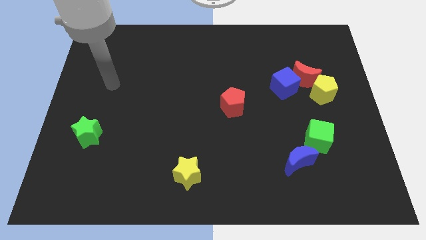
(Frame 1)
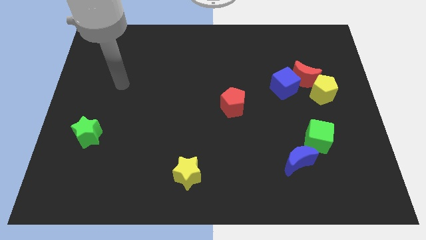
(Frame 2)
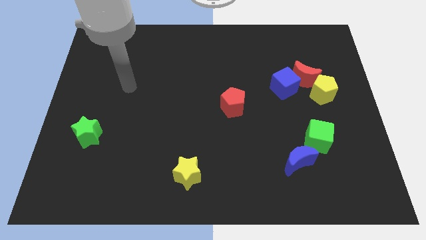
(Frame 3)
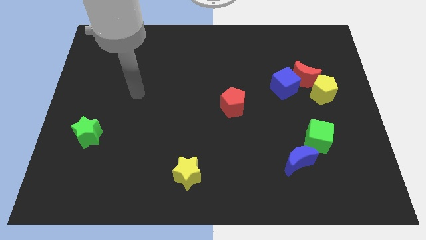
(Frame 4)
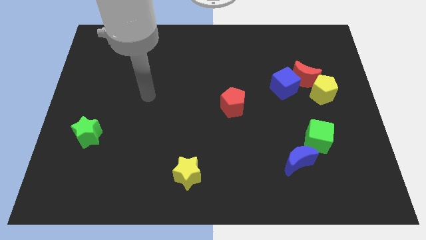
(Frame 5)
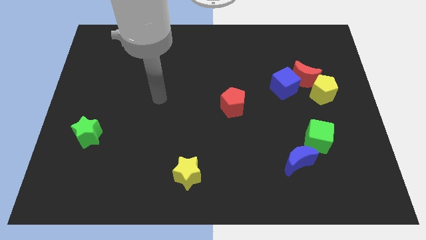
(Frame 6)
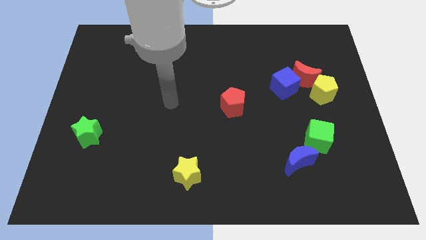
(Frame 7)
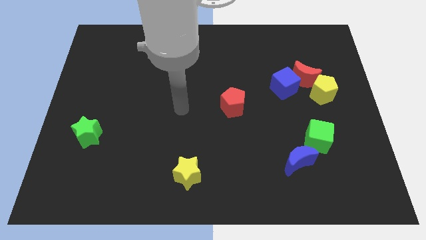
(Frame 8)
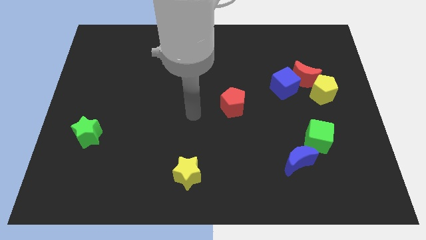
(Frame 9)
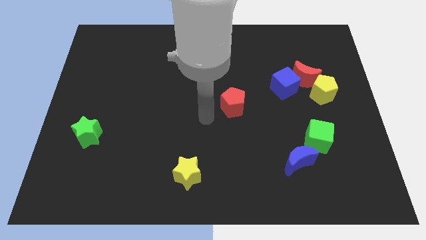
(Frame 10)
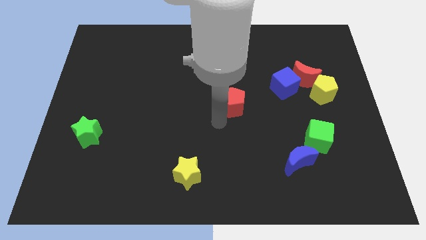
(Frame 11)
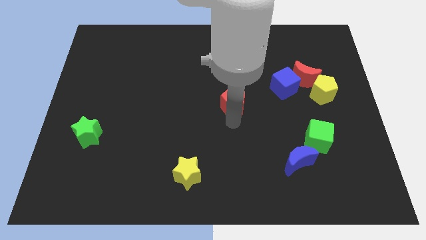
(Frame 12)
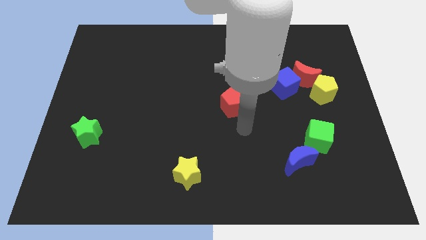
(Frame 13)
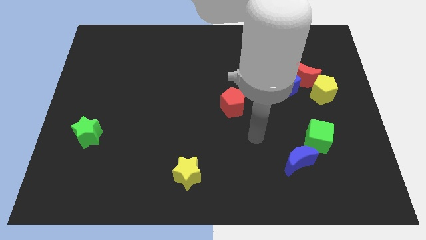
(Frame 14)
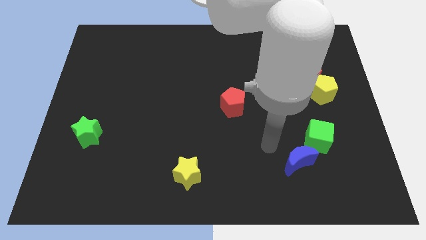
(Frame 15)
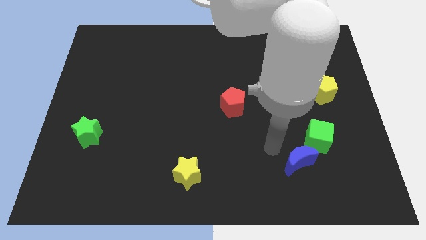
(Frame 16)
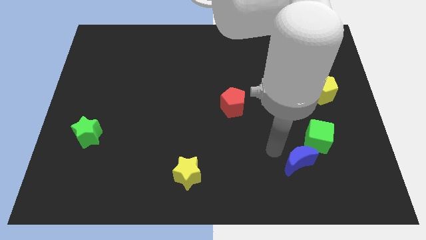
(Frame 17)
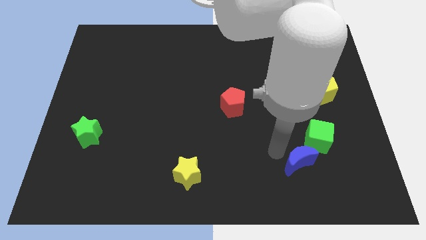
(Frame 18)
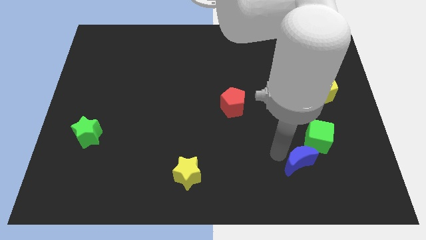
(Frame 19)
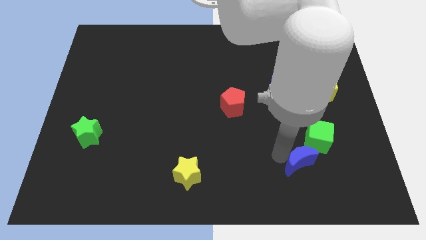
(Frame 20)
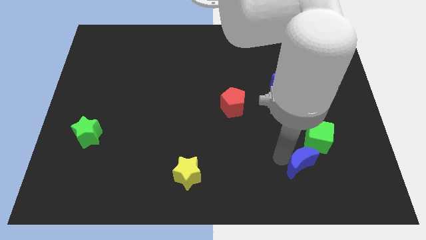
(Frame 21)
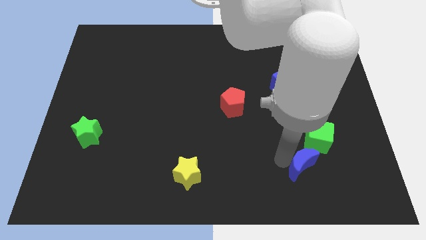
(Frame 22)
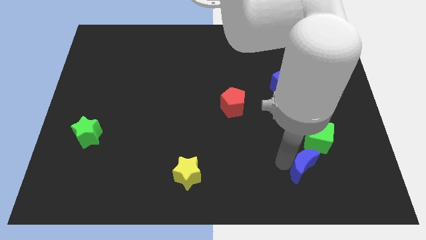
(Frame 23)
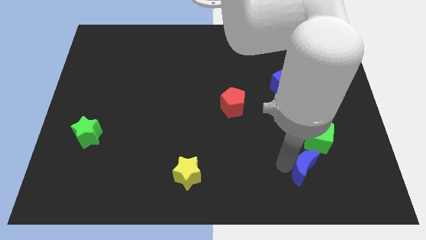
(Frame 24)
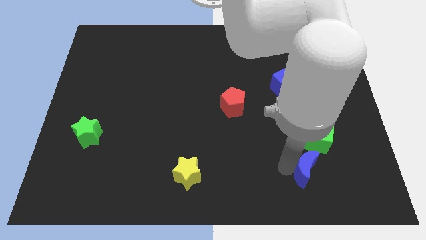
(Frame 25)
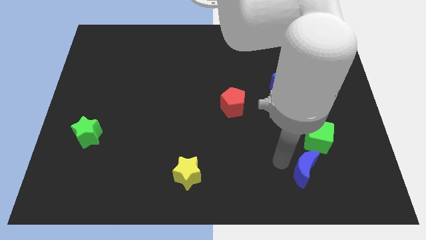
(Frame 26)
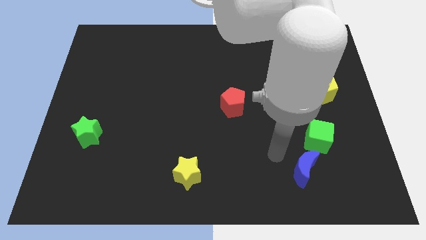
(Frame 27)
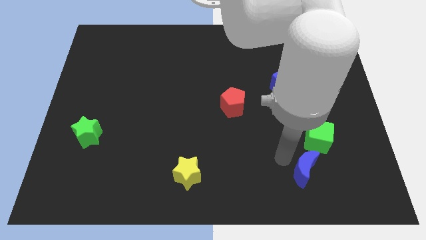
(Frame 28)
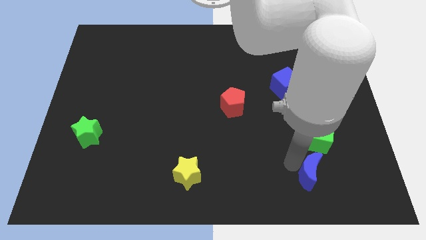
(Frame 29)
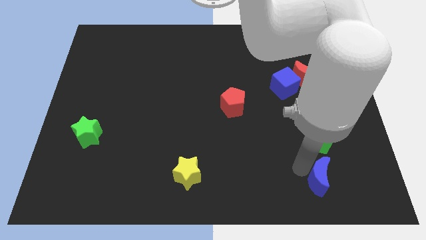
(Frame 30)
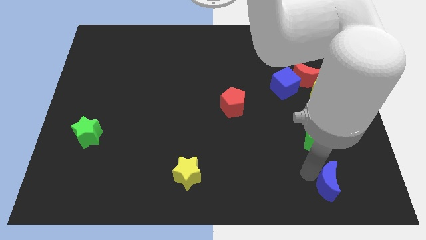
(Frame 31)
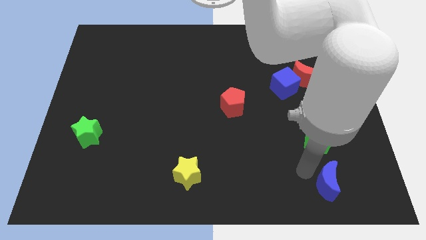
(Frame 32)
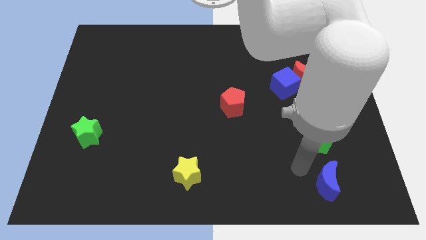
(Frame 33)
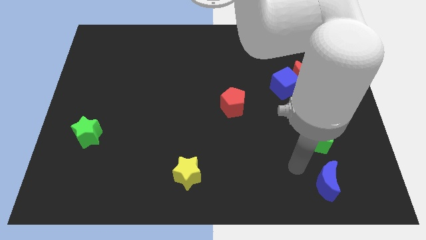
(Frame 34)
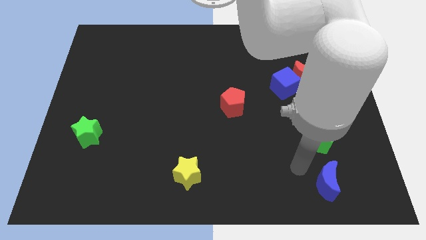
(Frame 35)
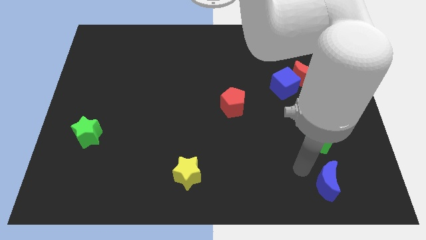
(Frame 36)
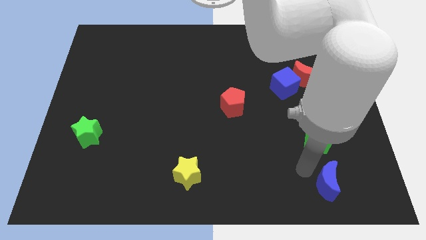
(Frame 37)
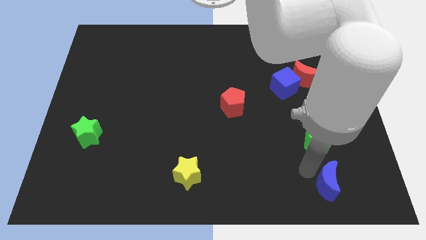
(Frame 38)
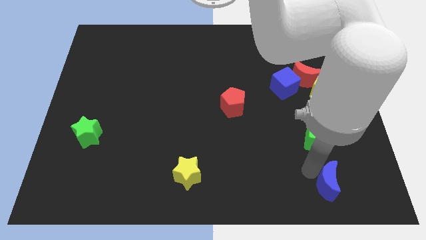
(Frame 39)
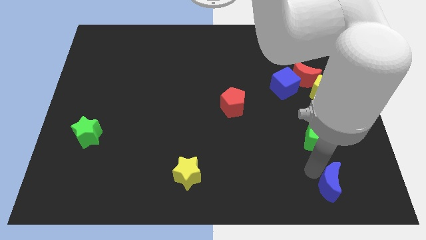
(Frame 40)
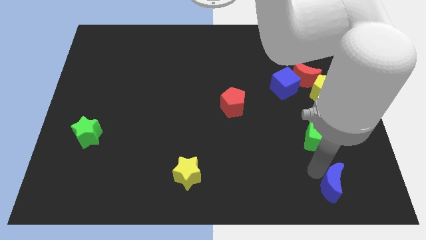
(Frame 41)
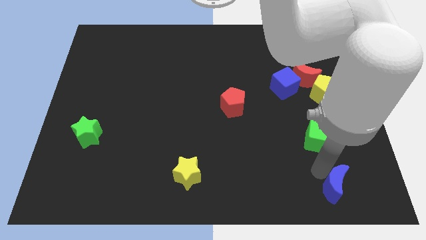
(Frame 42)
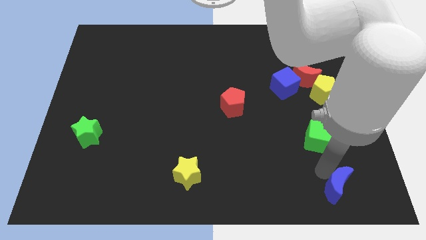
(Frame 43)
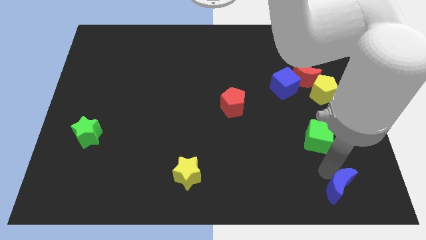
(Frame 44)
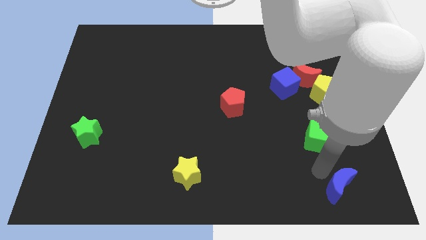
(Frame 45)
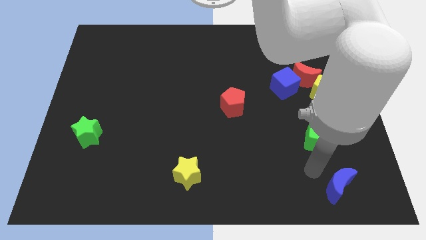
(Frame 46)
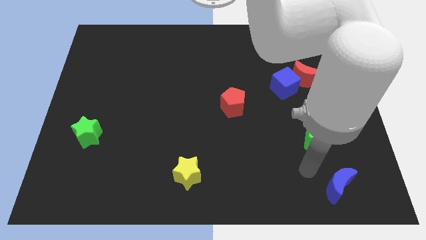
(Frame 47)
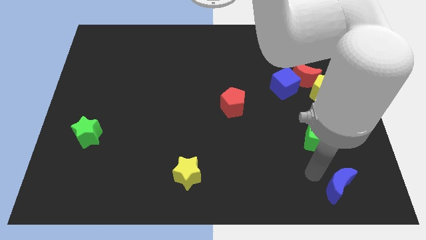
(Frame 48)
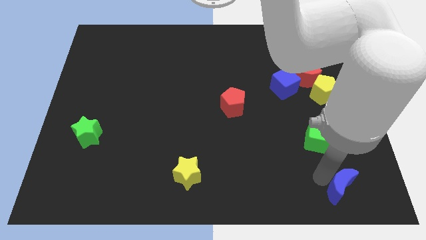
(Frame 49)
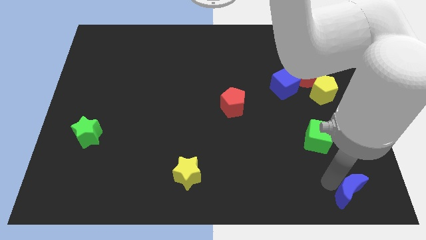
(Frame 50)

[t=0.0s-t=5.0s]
push the blue moon to the bottom right

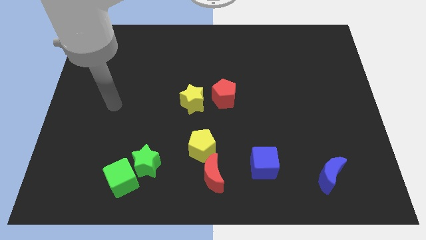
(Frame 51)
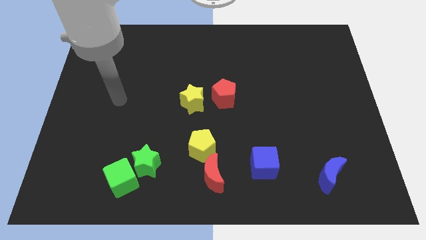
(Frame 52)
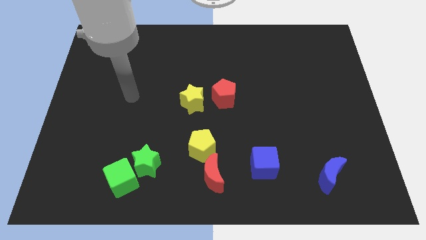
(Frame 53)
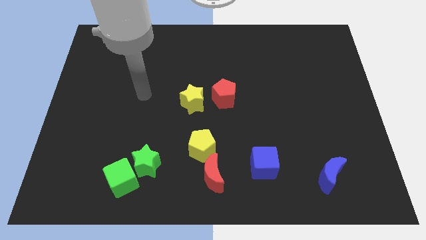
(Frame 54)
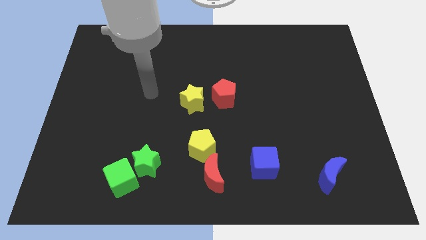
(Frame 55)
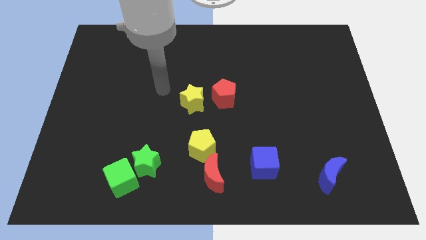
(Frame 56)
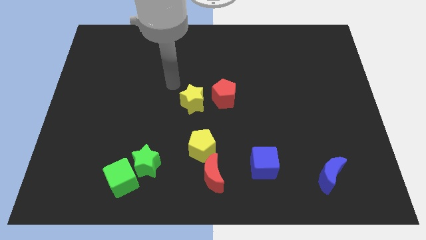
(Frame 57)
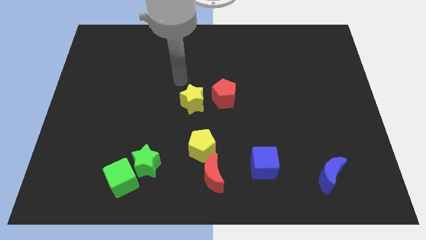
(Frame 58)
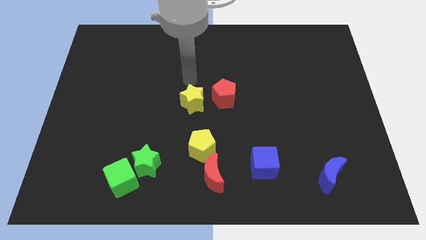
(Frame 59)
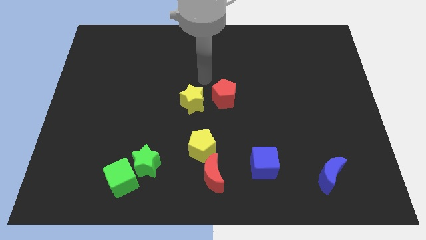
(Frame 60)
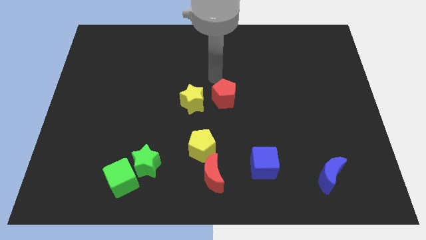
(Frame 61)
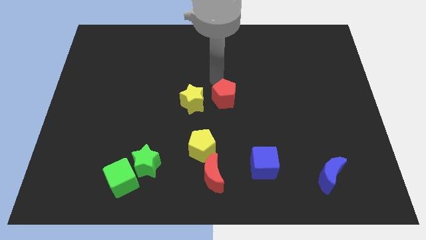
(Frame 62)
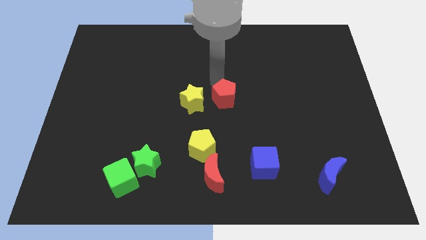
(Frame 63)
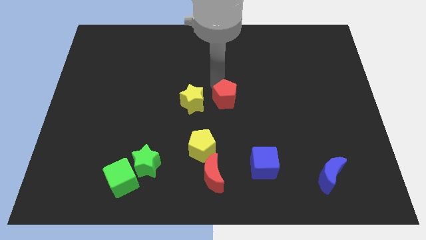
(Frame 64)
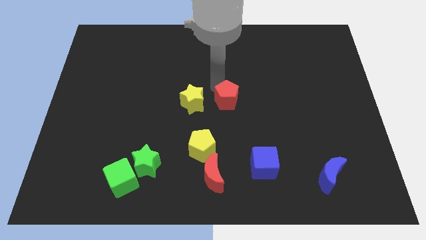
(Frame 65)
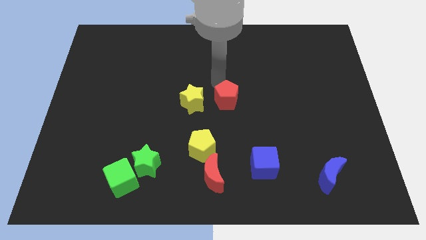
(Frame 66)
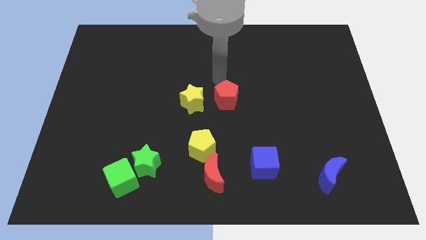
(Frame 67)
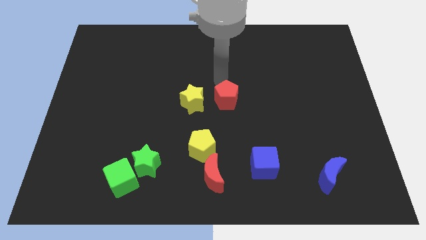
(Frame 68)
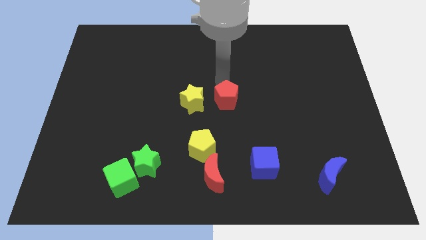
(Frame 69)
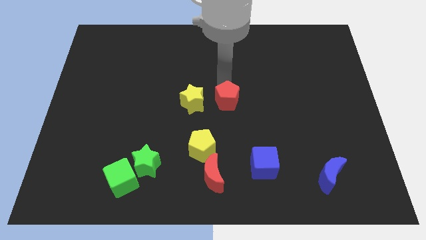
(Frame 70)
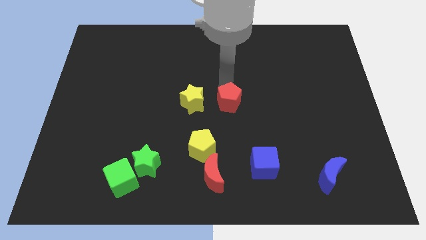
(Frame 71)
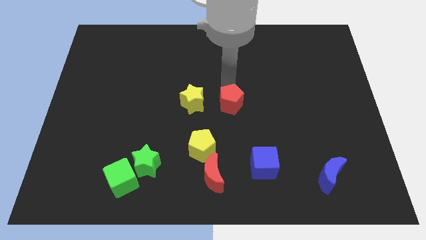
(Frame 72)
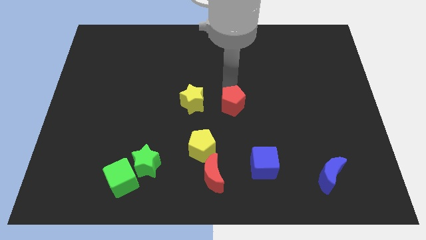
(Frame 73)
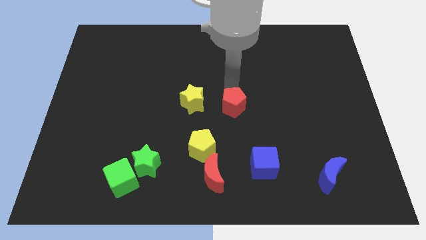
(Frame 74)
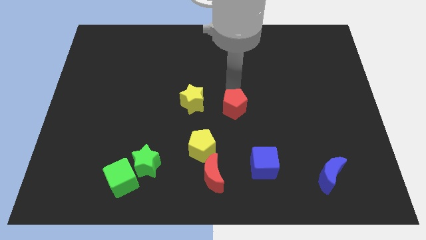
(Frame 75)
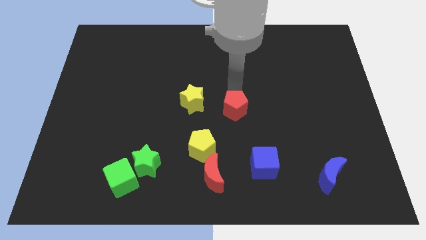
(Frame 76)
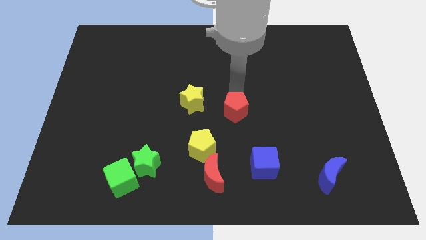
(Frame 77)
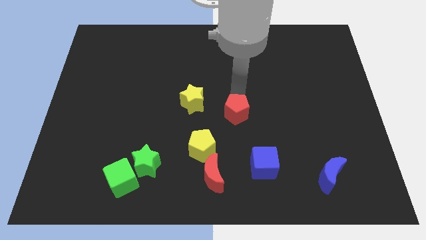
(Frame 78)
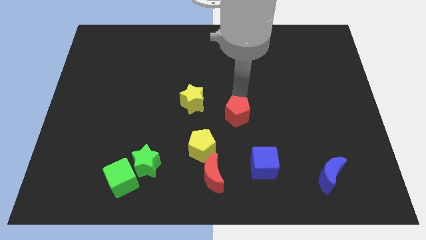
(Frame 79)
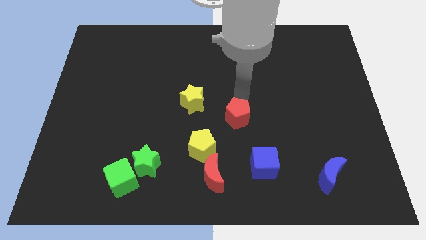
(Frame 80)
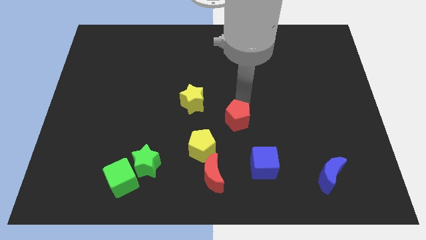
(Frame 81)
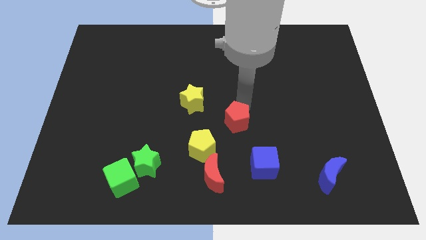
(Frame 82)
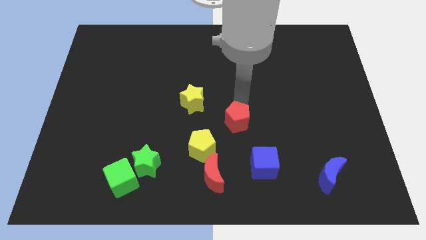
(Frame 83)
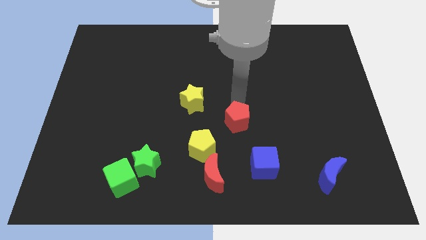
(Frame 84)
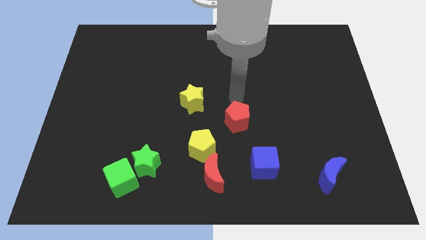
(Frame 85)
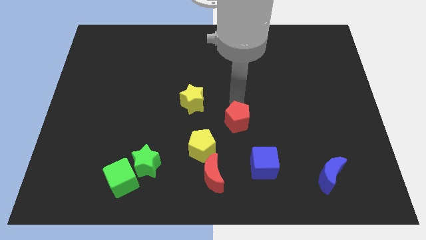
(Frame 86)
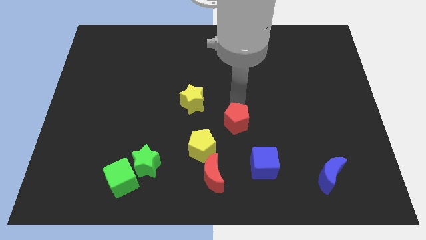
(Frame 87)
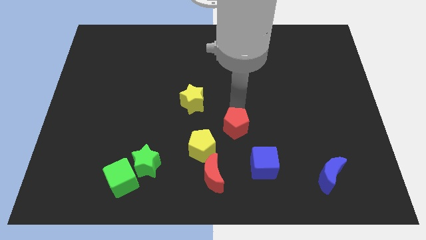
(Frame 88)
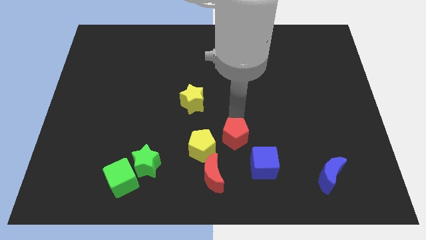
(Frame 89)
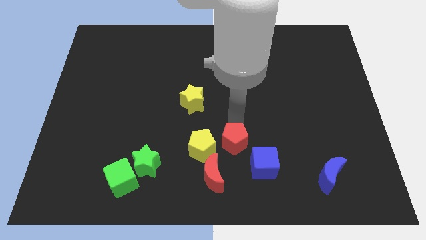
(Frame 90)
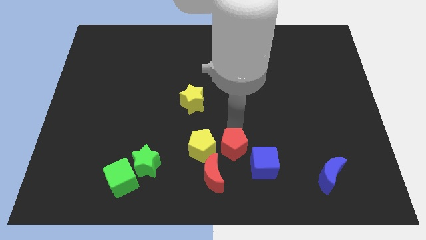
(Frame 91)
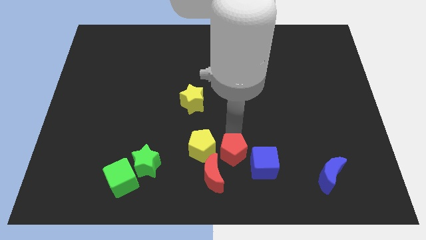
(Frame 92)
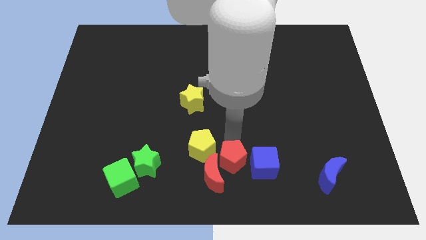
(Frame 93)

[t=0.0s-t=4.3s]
slide the red pentagon to the bottom
